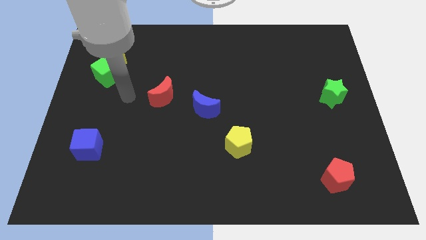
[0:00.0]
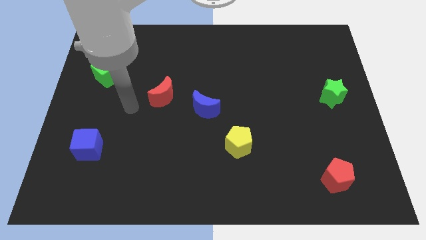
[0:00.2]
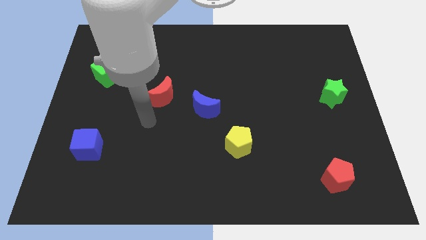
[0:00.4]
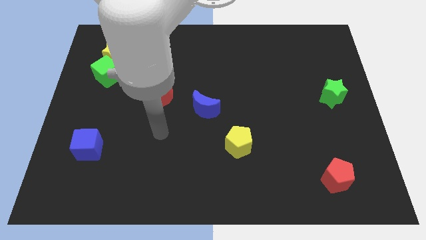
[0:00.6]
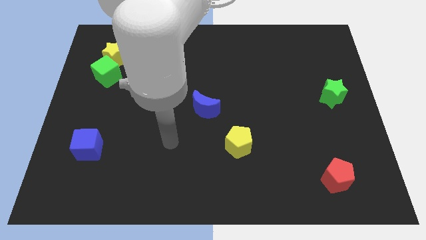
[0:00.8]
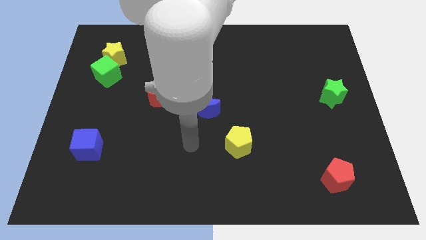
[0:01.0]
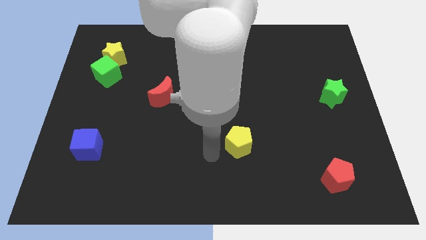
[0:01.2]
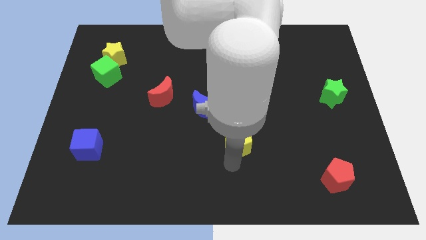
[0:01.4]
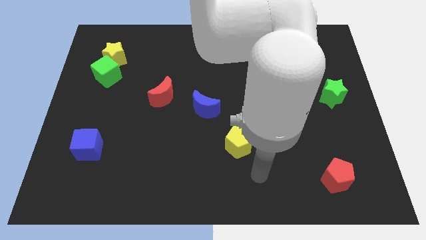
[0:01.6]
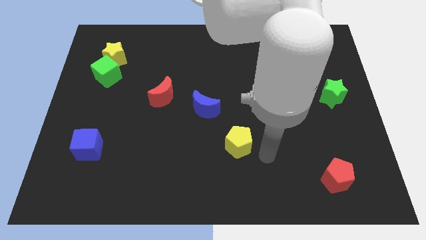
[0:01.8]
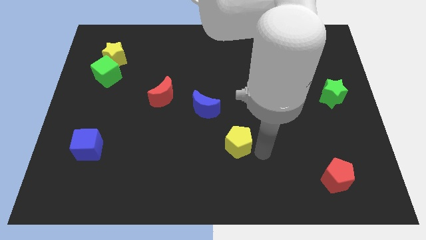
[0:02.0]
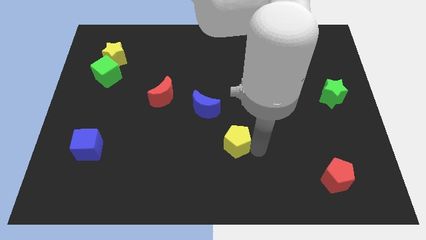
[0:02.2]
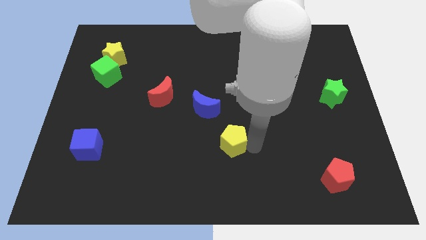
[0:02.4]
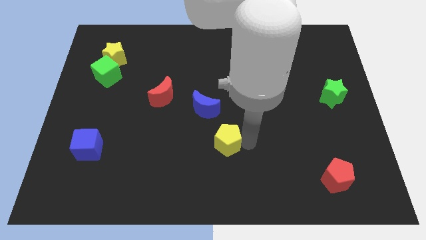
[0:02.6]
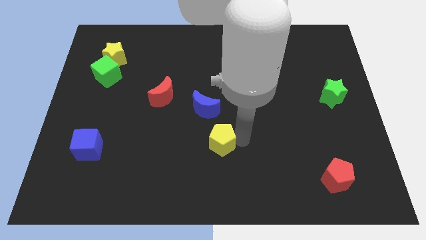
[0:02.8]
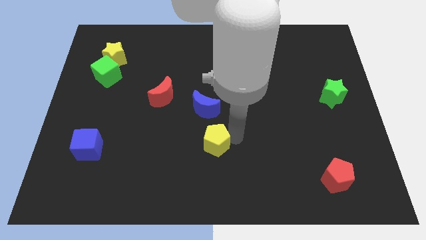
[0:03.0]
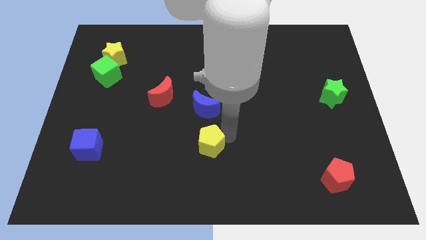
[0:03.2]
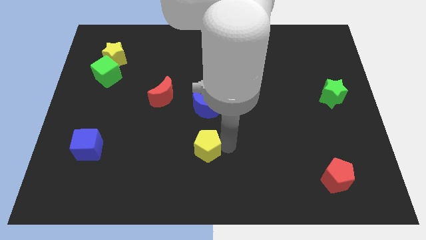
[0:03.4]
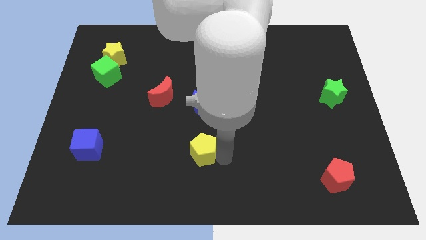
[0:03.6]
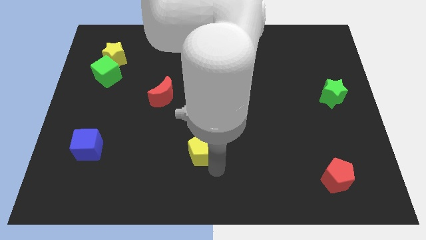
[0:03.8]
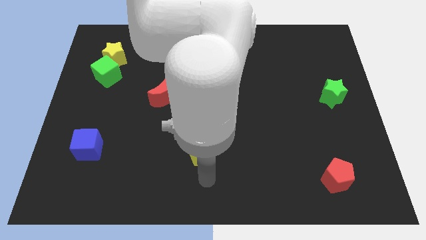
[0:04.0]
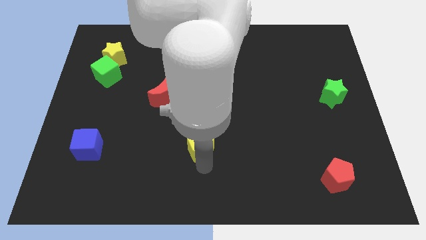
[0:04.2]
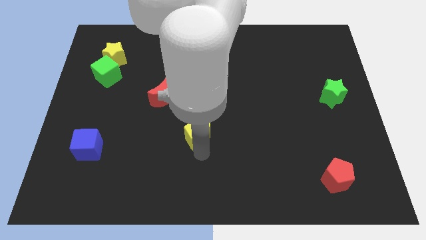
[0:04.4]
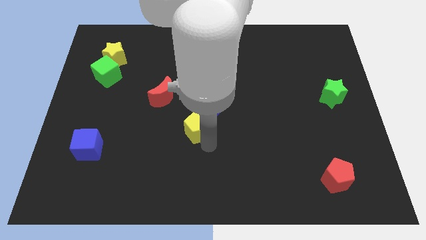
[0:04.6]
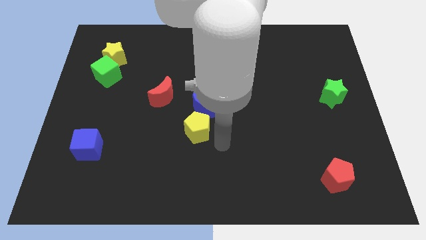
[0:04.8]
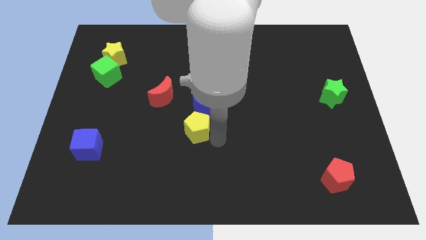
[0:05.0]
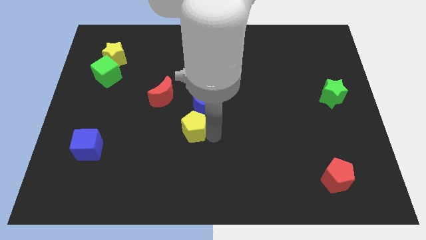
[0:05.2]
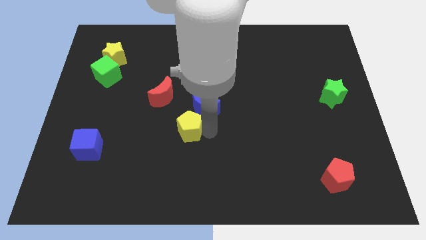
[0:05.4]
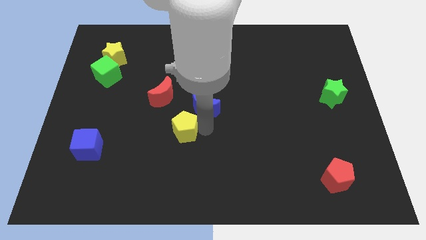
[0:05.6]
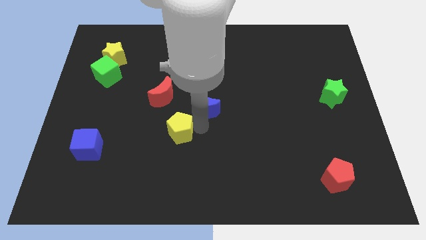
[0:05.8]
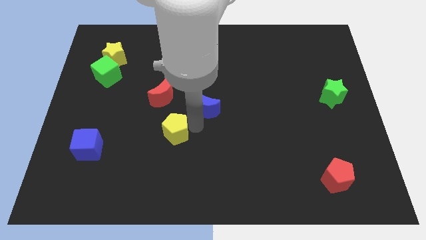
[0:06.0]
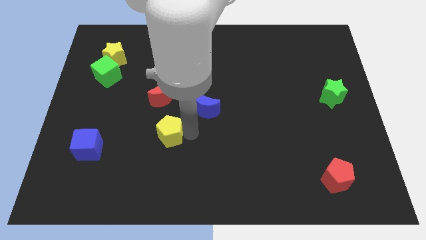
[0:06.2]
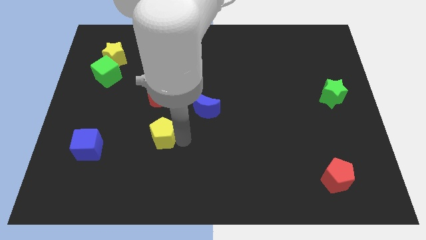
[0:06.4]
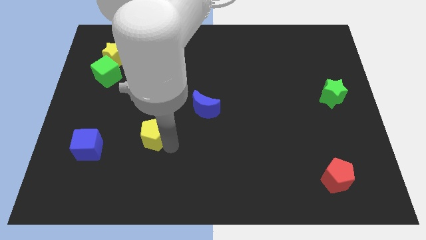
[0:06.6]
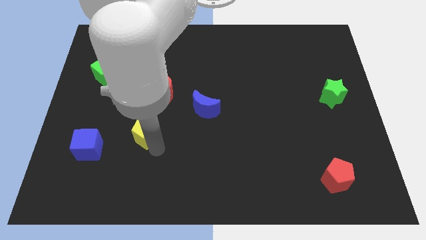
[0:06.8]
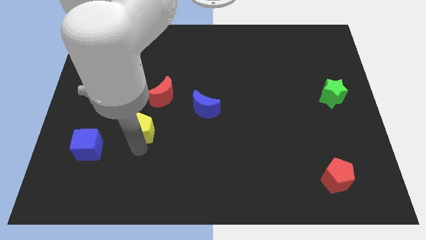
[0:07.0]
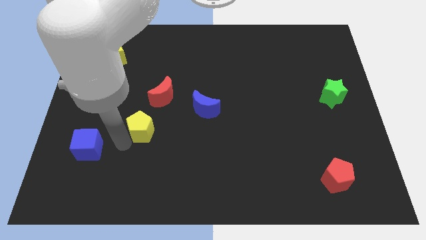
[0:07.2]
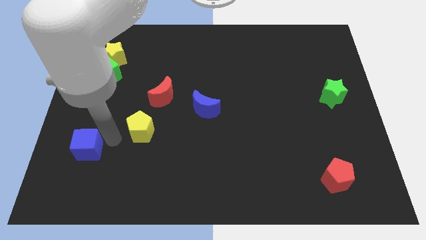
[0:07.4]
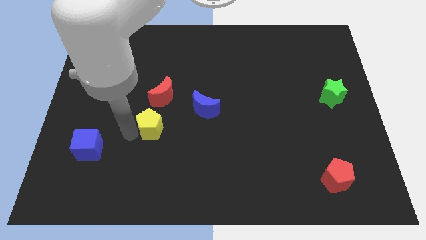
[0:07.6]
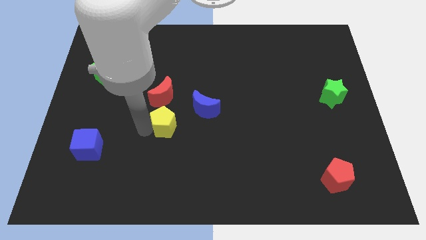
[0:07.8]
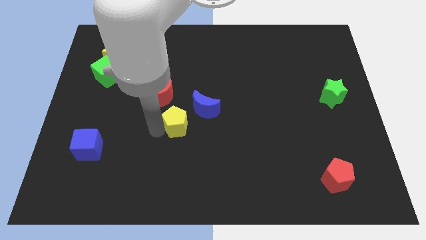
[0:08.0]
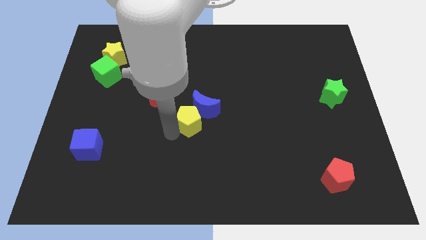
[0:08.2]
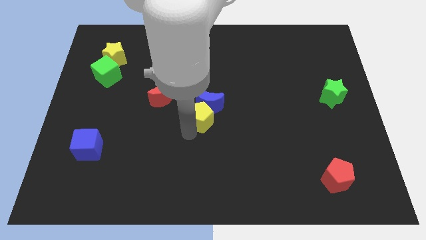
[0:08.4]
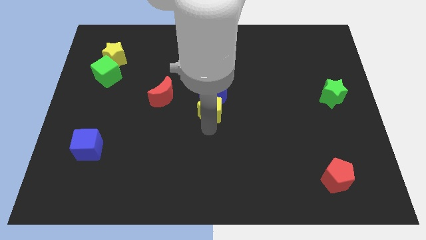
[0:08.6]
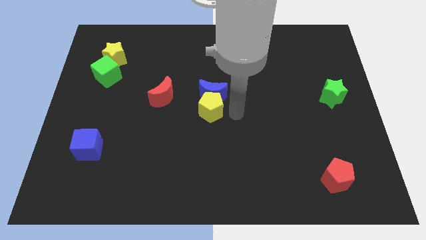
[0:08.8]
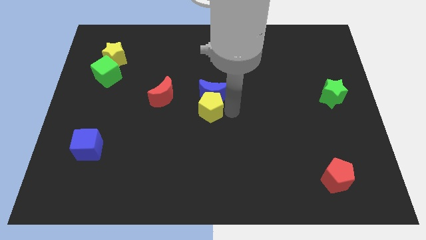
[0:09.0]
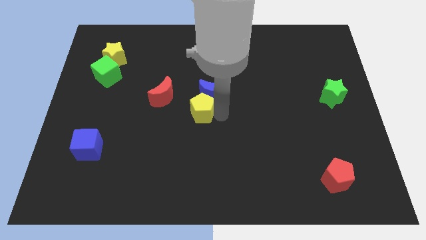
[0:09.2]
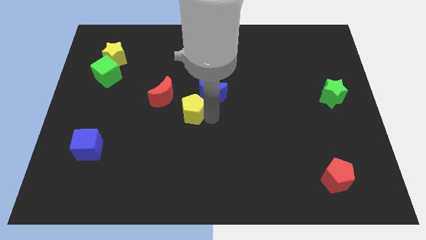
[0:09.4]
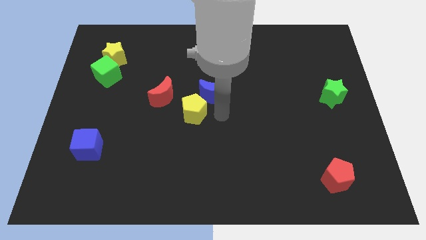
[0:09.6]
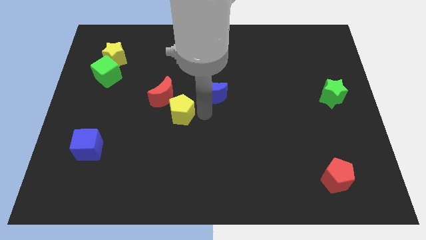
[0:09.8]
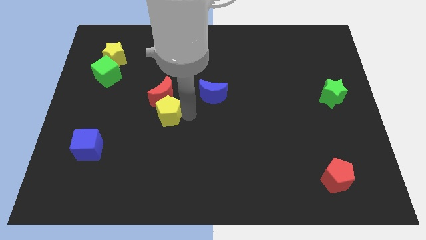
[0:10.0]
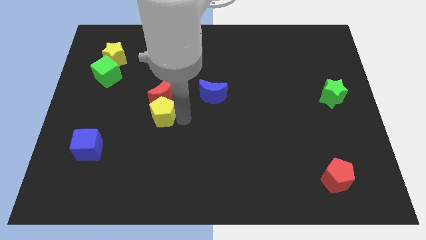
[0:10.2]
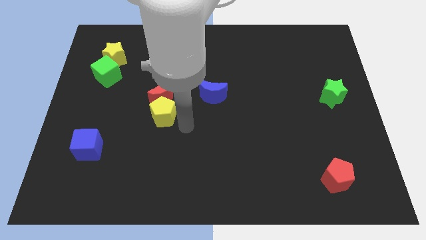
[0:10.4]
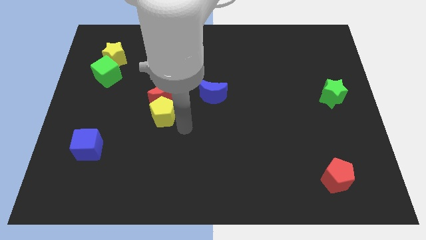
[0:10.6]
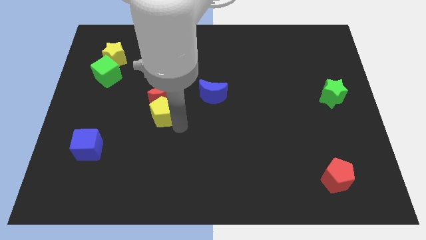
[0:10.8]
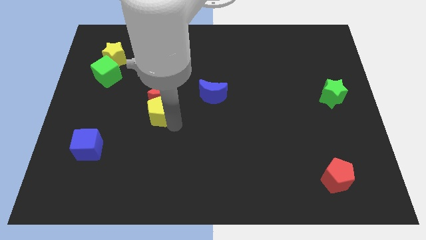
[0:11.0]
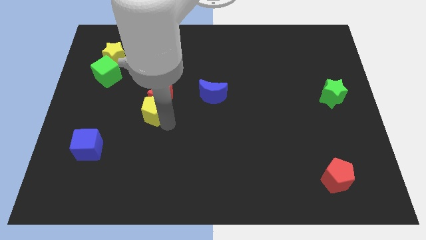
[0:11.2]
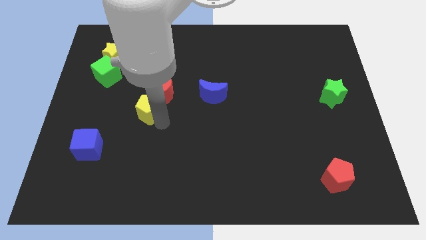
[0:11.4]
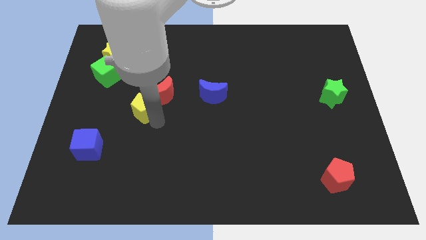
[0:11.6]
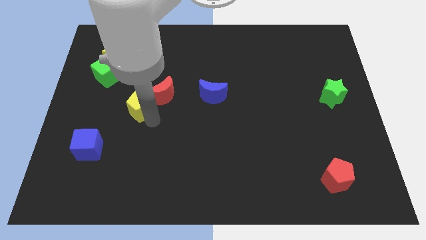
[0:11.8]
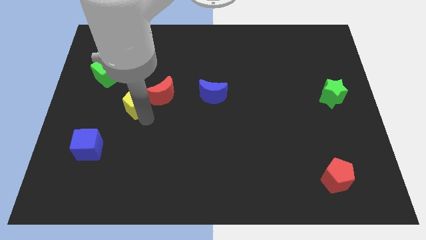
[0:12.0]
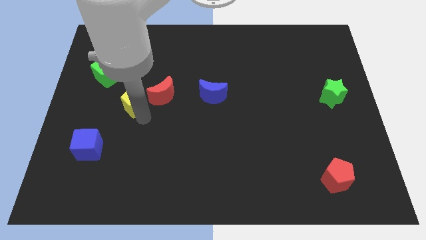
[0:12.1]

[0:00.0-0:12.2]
move the yellow pentagon to the bottom right of the green cube
